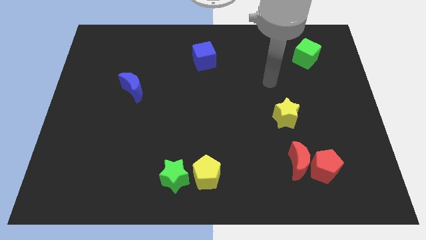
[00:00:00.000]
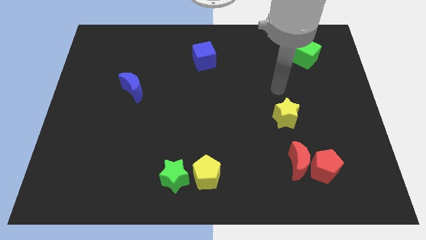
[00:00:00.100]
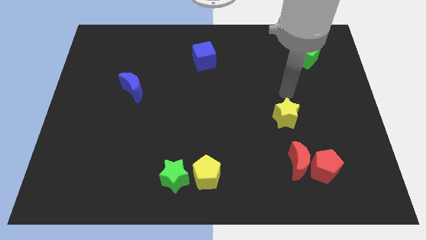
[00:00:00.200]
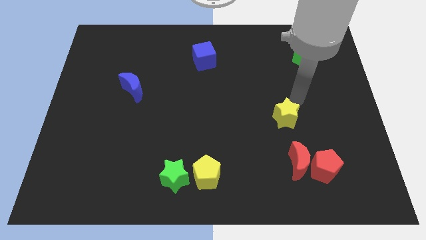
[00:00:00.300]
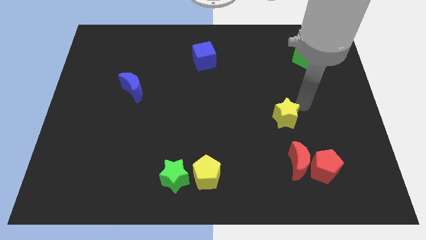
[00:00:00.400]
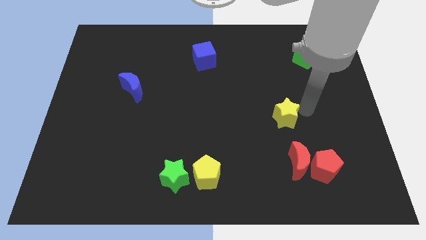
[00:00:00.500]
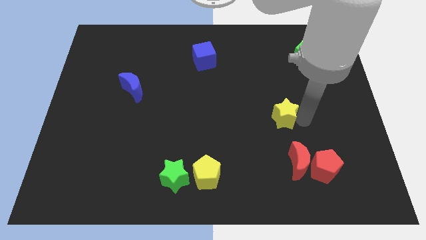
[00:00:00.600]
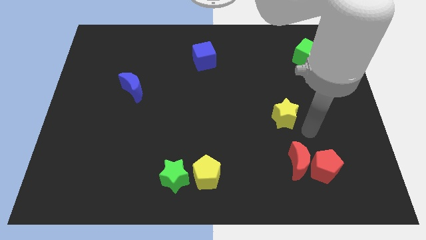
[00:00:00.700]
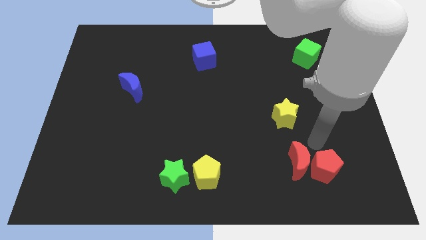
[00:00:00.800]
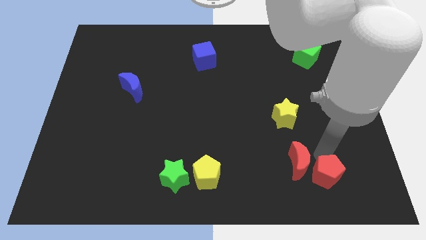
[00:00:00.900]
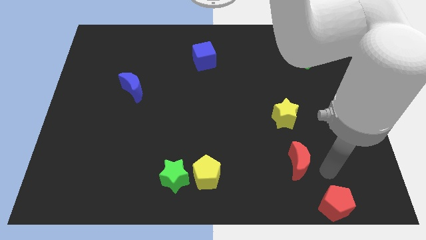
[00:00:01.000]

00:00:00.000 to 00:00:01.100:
separate the red moon from the red pentagon

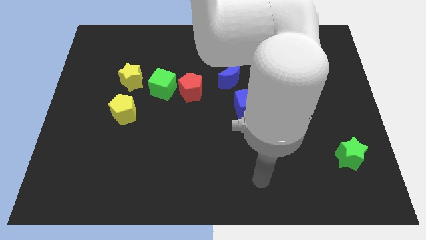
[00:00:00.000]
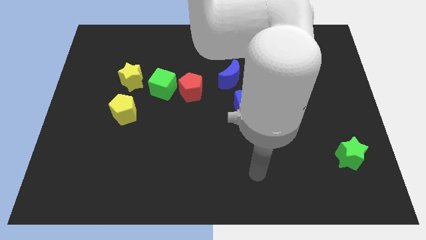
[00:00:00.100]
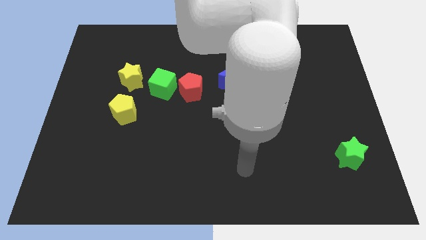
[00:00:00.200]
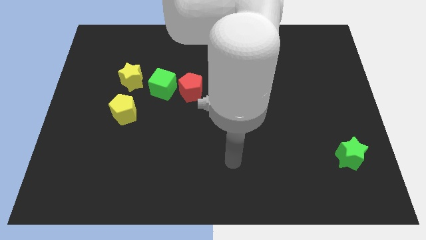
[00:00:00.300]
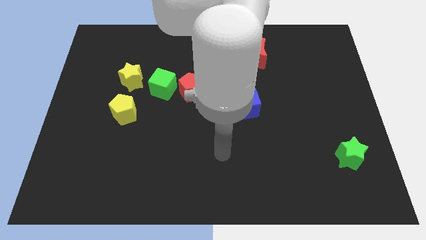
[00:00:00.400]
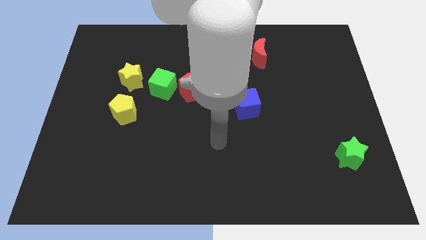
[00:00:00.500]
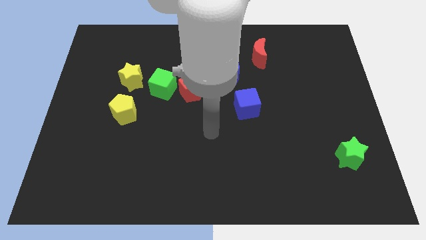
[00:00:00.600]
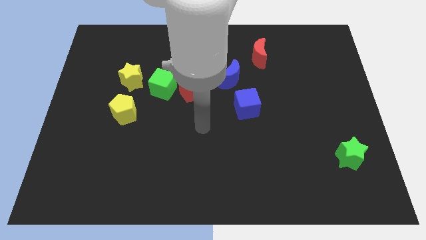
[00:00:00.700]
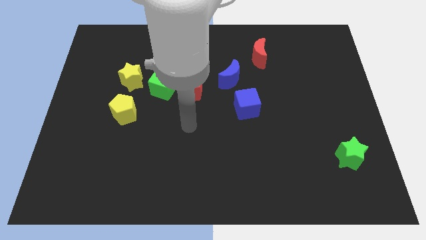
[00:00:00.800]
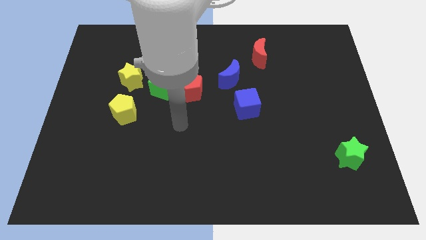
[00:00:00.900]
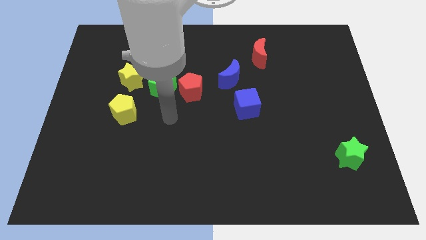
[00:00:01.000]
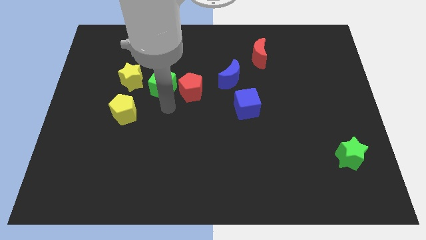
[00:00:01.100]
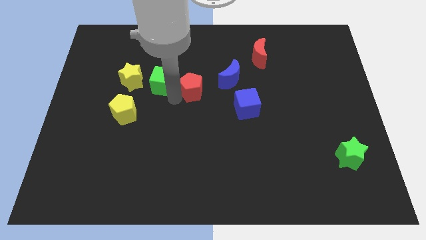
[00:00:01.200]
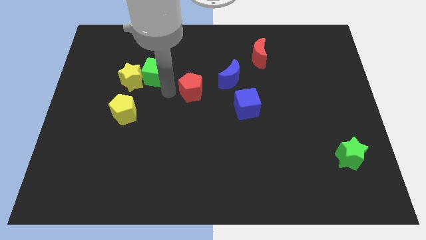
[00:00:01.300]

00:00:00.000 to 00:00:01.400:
move the red pentagon away from the green cube

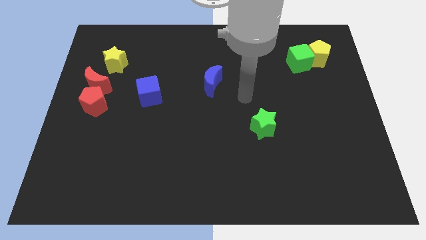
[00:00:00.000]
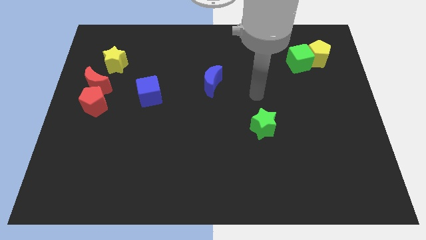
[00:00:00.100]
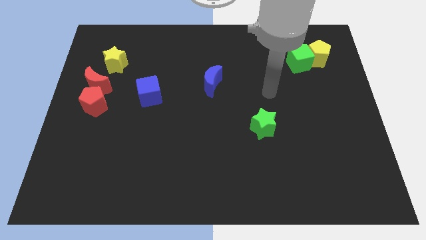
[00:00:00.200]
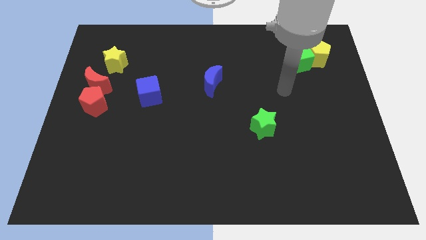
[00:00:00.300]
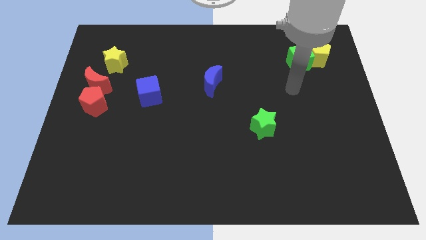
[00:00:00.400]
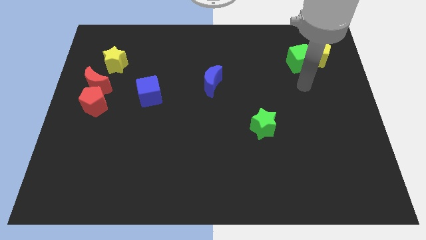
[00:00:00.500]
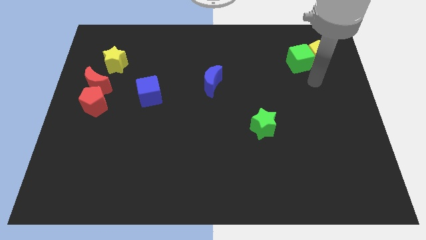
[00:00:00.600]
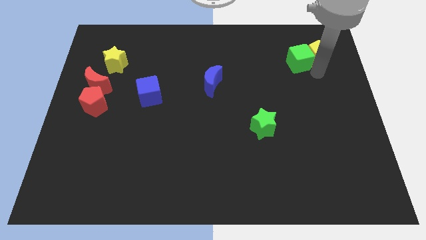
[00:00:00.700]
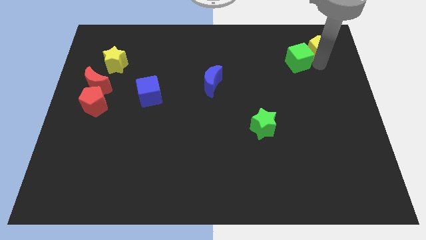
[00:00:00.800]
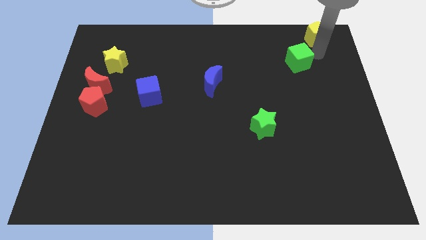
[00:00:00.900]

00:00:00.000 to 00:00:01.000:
pull the green cube apart from the yellow pentagon

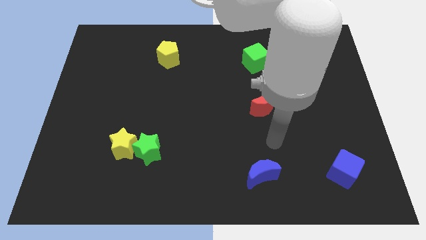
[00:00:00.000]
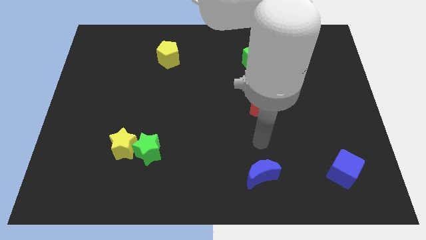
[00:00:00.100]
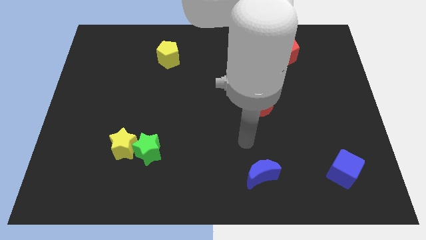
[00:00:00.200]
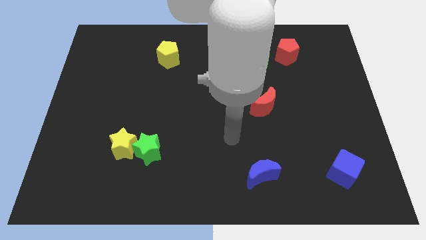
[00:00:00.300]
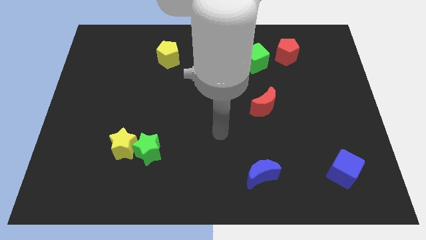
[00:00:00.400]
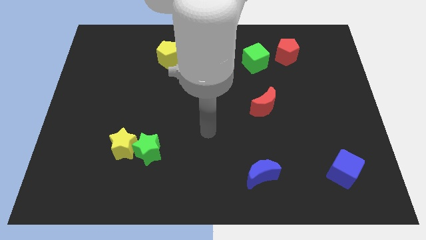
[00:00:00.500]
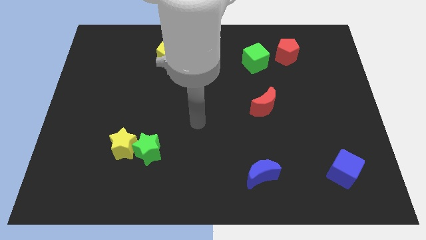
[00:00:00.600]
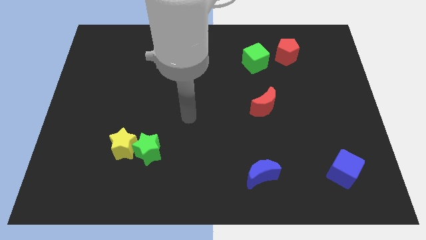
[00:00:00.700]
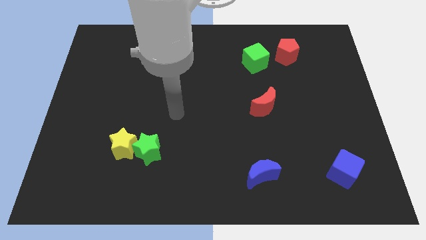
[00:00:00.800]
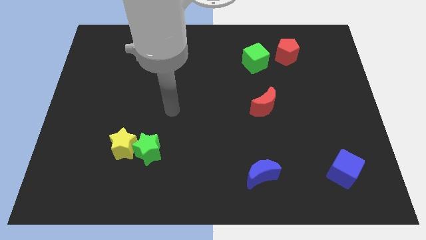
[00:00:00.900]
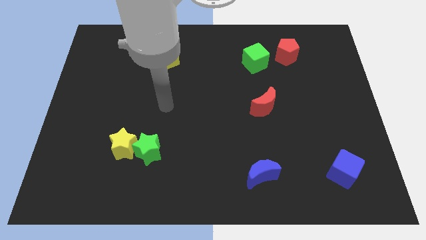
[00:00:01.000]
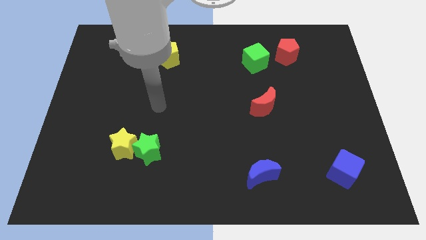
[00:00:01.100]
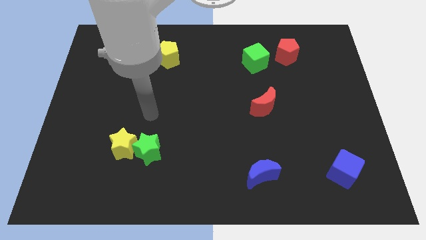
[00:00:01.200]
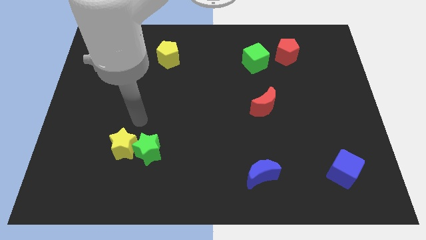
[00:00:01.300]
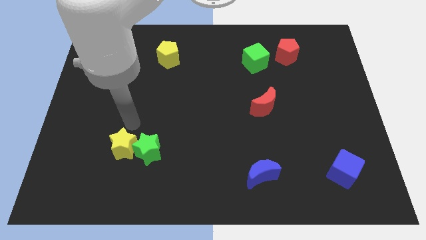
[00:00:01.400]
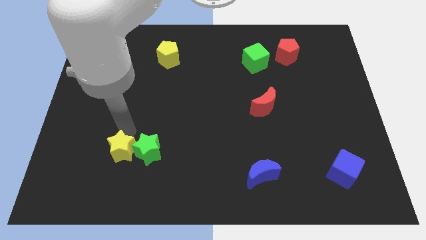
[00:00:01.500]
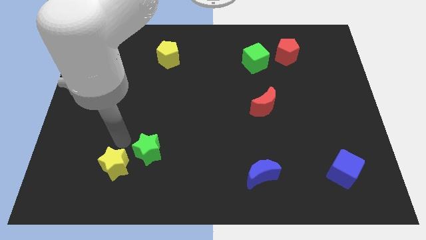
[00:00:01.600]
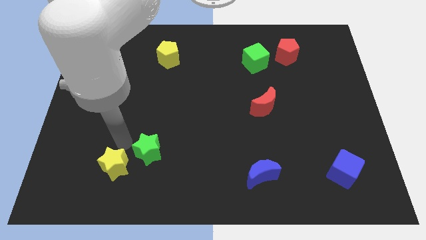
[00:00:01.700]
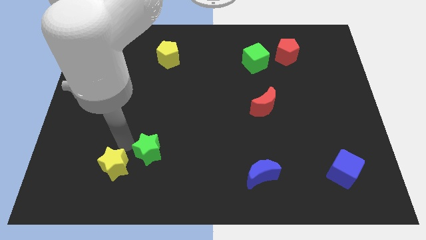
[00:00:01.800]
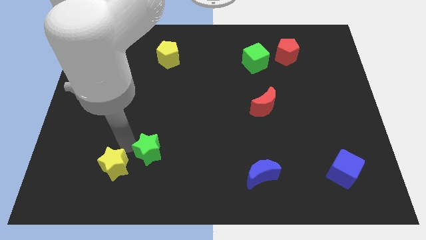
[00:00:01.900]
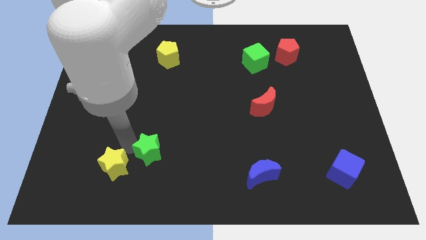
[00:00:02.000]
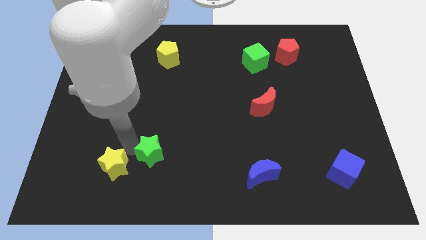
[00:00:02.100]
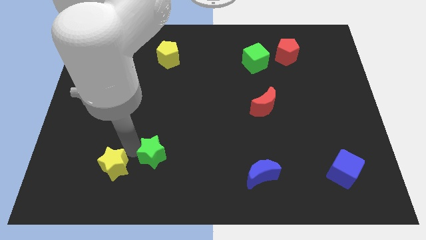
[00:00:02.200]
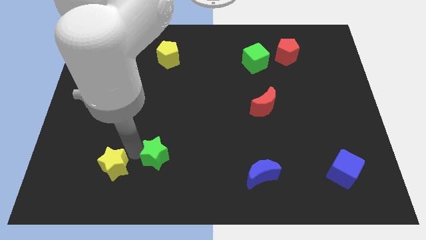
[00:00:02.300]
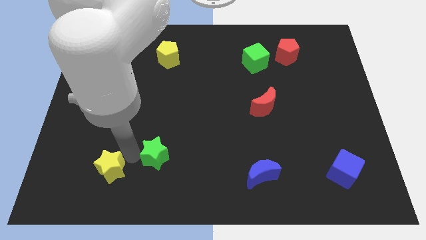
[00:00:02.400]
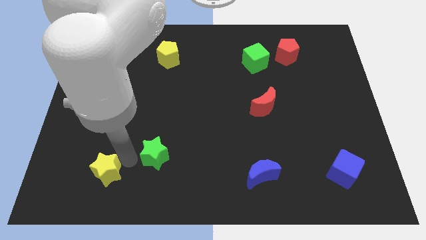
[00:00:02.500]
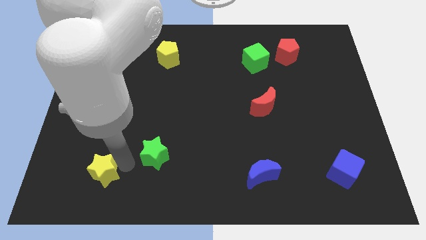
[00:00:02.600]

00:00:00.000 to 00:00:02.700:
pull the green star apart from the yellow star

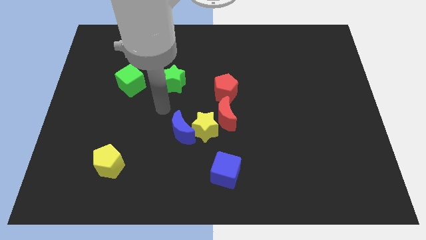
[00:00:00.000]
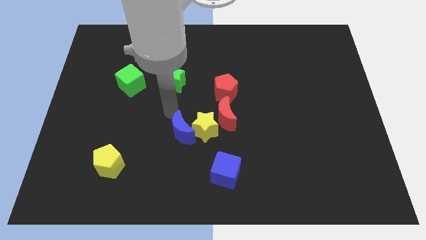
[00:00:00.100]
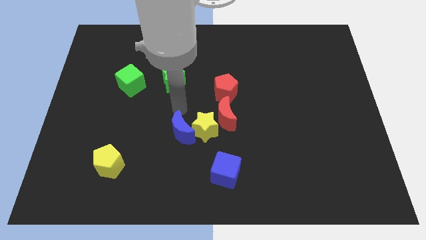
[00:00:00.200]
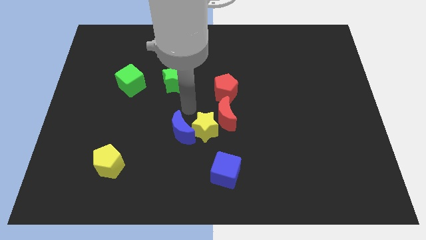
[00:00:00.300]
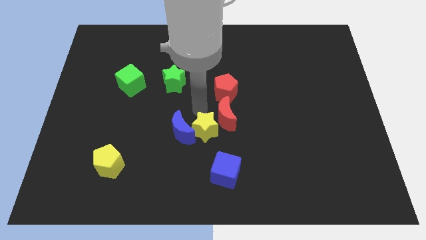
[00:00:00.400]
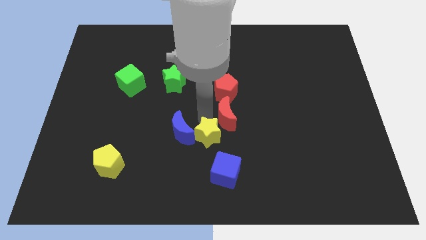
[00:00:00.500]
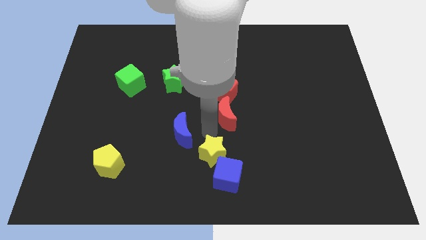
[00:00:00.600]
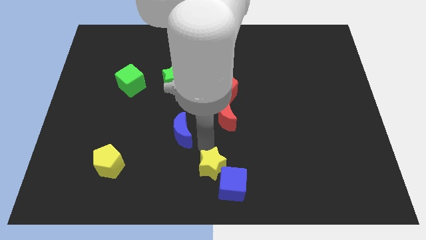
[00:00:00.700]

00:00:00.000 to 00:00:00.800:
separate the blue moon from the yellow star

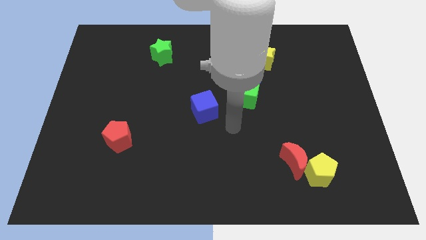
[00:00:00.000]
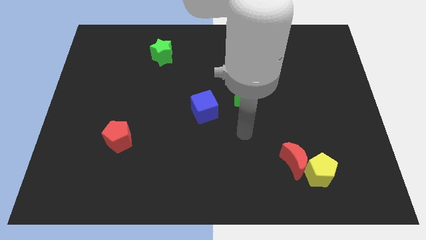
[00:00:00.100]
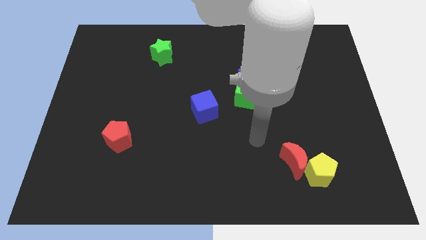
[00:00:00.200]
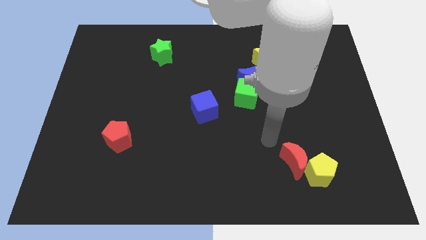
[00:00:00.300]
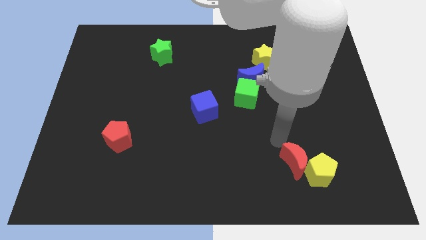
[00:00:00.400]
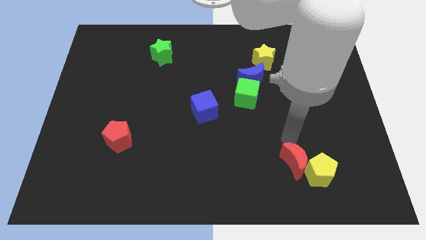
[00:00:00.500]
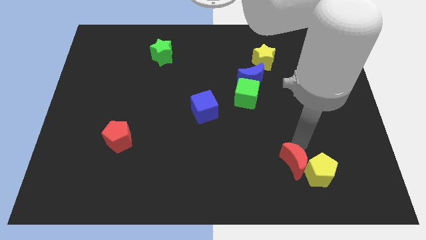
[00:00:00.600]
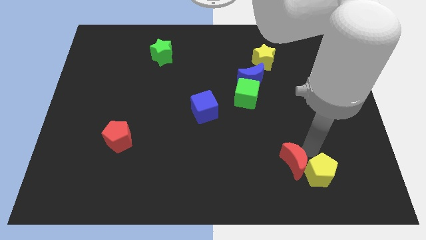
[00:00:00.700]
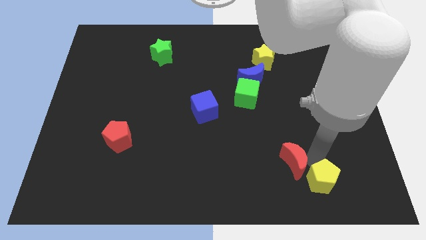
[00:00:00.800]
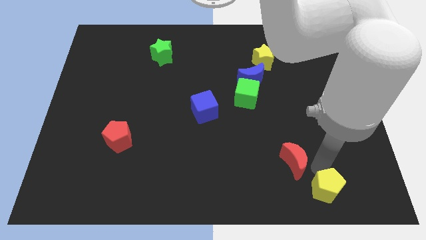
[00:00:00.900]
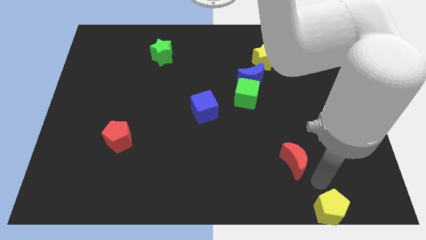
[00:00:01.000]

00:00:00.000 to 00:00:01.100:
pull the red moon apart from the yellow pentagon

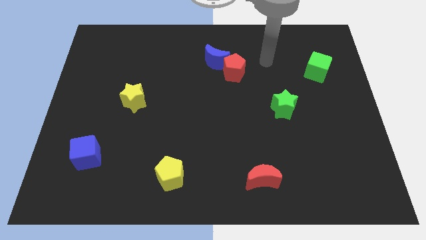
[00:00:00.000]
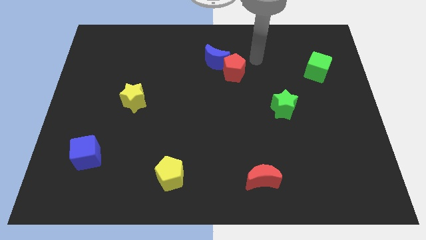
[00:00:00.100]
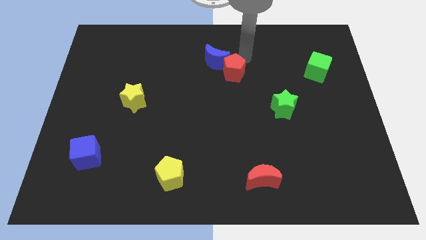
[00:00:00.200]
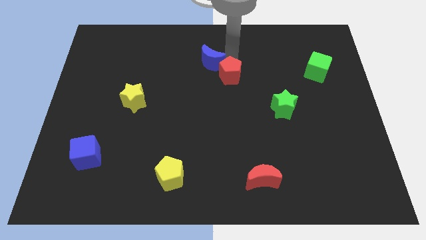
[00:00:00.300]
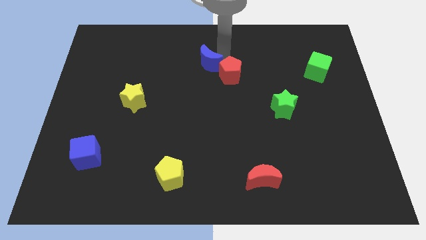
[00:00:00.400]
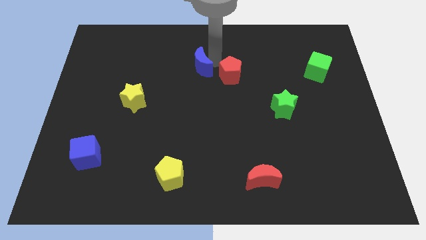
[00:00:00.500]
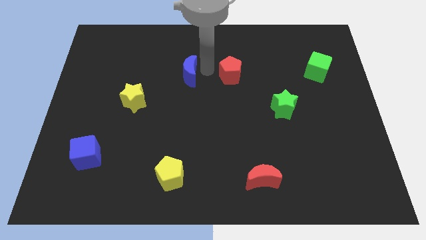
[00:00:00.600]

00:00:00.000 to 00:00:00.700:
separate the red pentagon from the blue moon

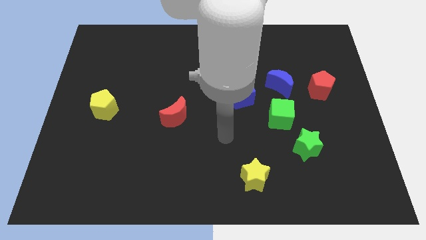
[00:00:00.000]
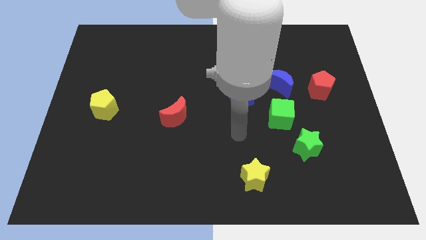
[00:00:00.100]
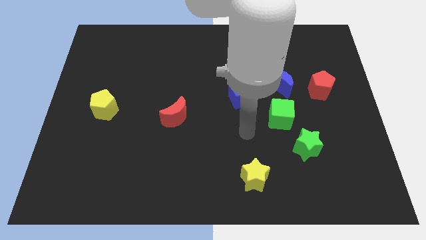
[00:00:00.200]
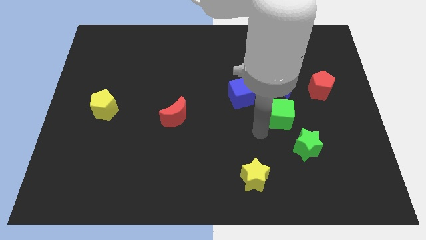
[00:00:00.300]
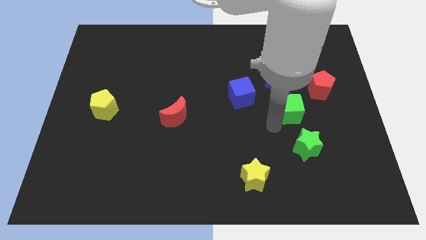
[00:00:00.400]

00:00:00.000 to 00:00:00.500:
pull the green star apart from the green cube
